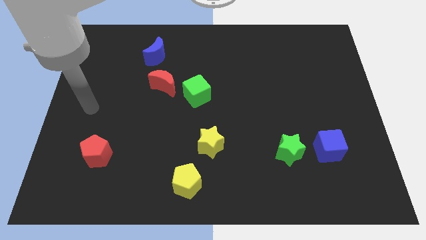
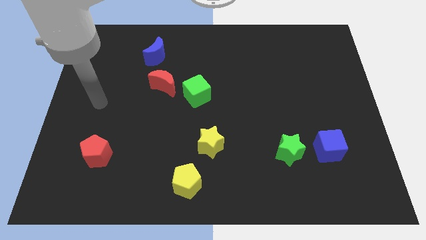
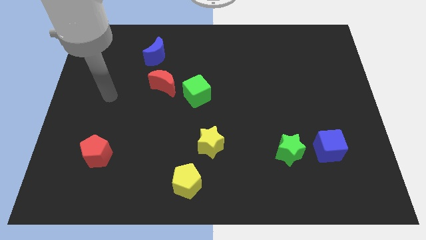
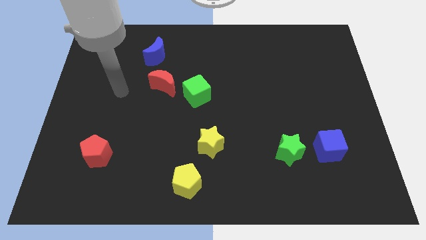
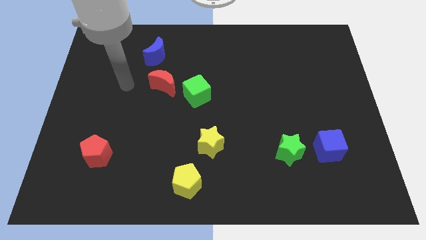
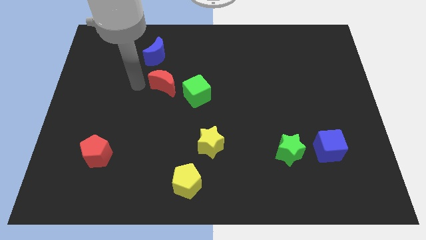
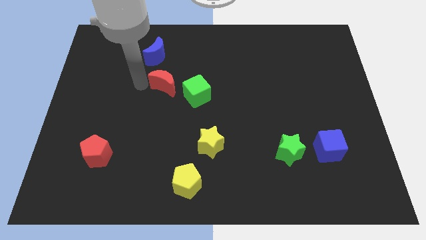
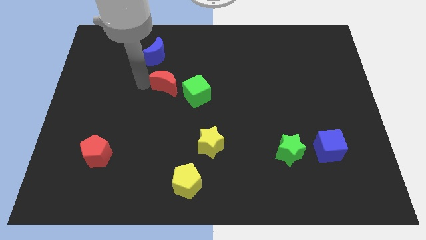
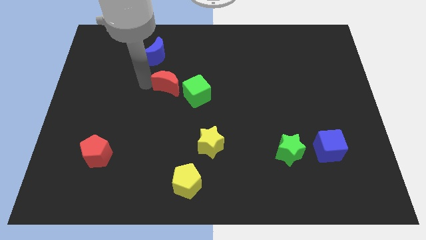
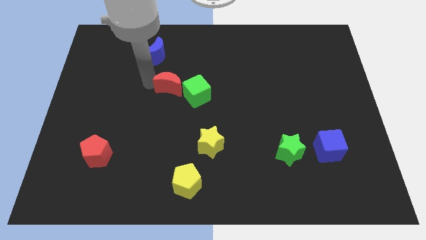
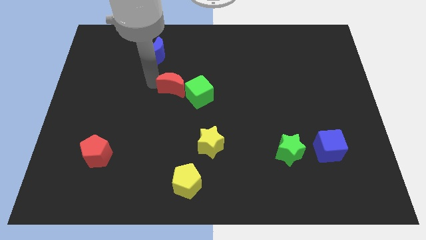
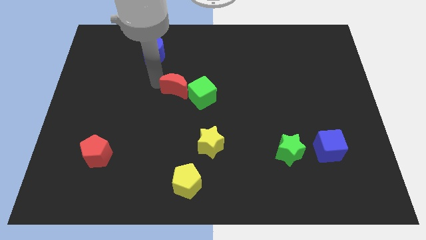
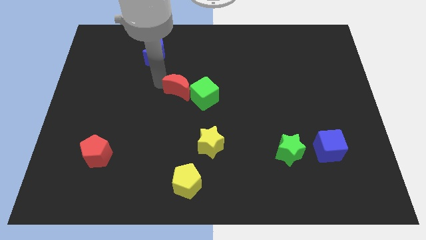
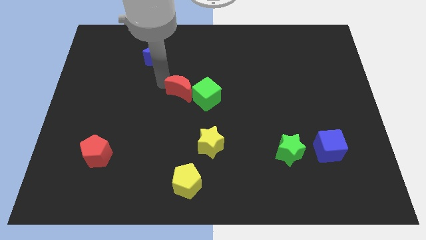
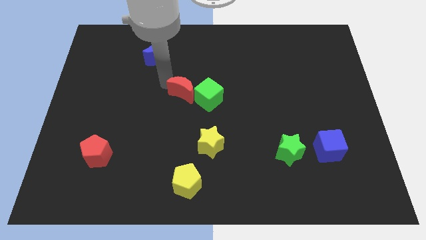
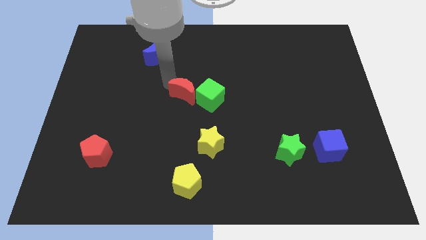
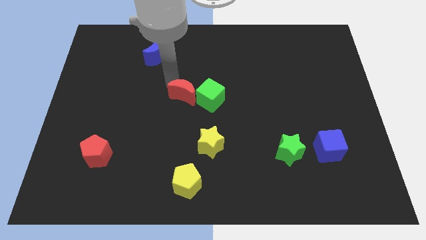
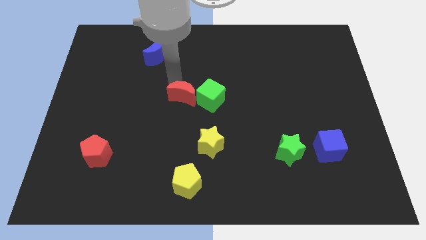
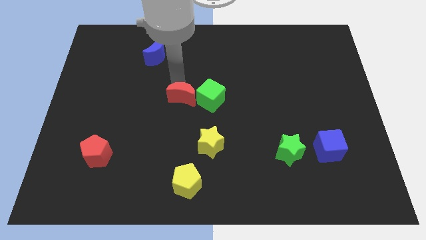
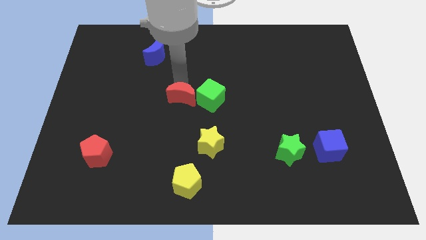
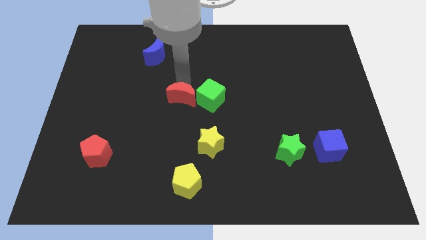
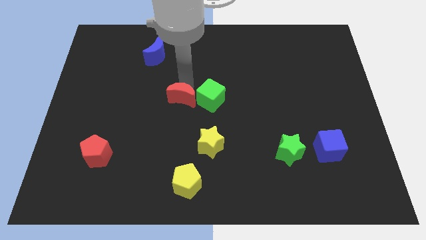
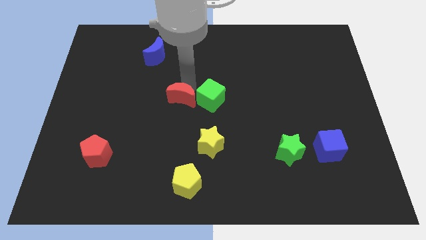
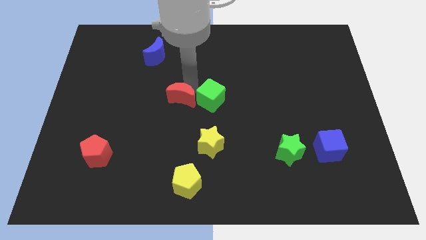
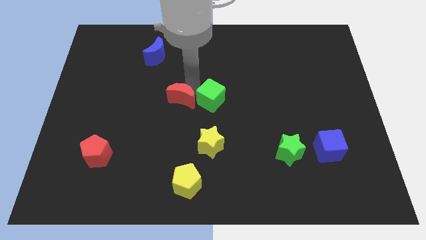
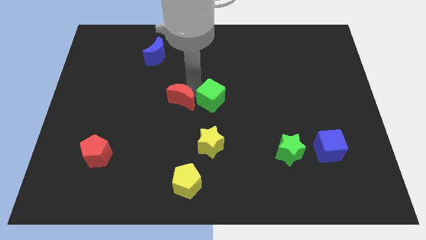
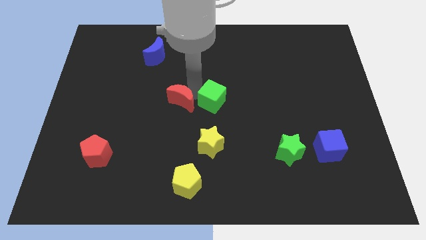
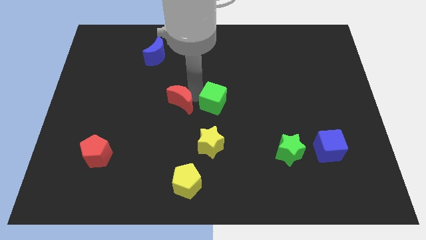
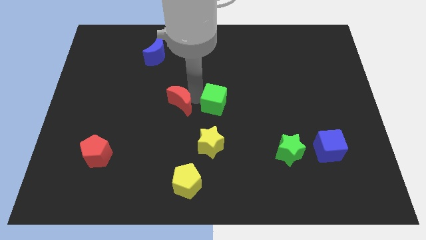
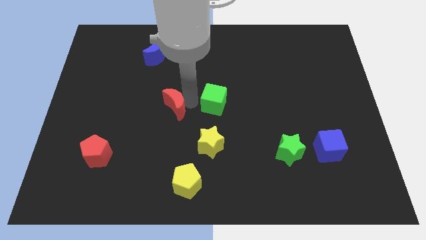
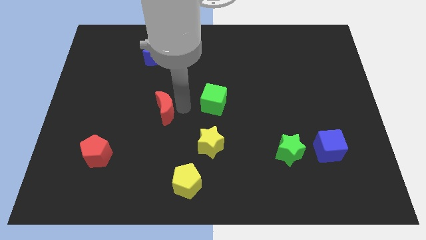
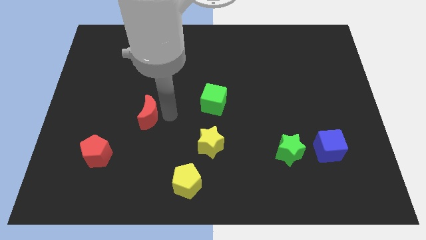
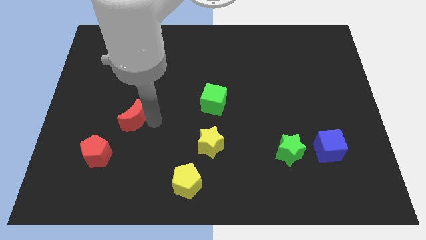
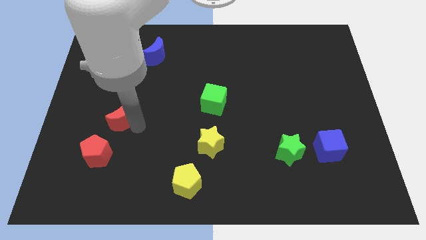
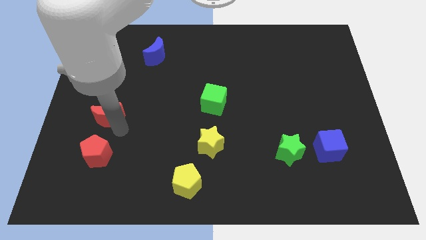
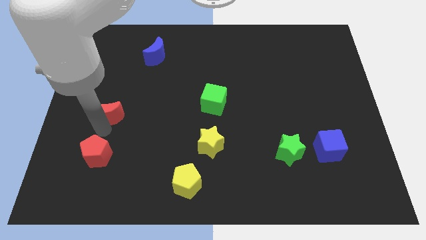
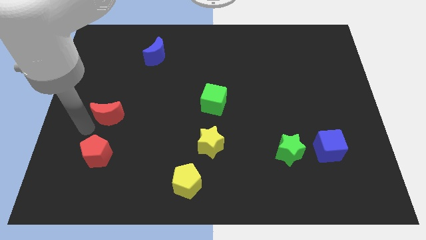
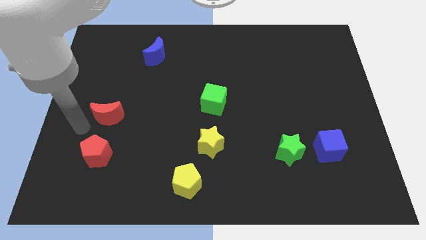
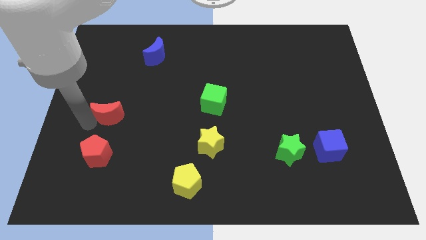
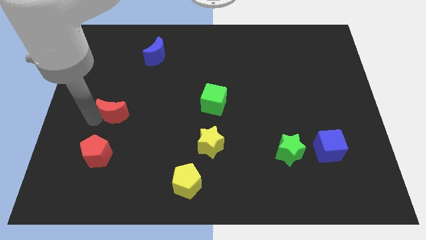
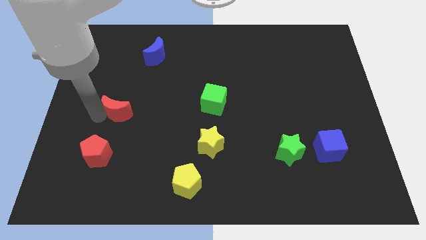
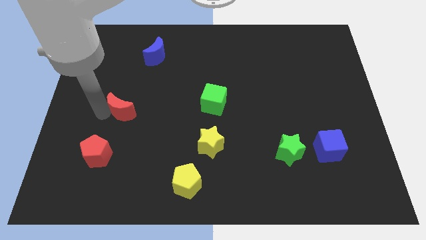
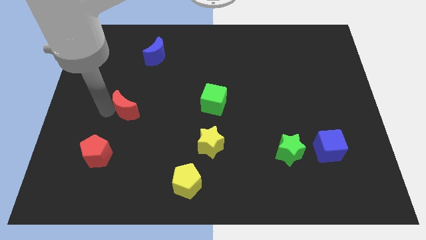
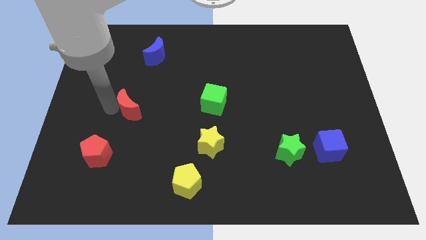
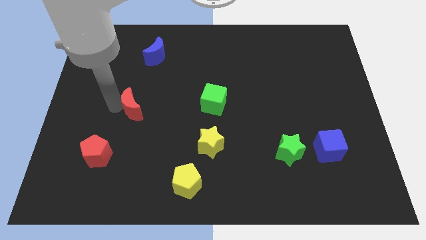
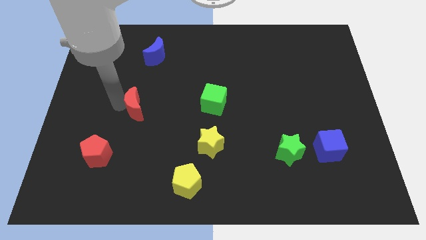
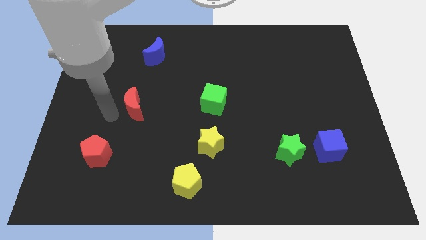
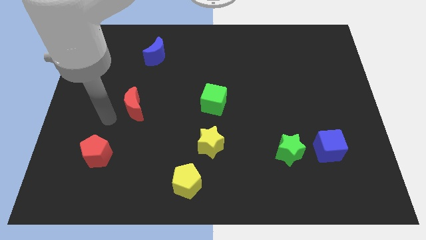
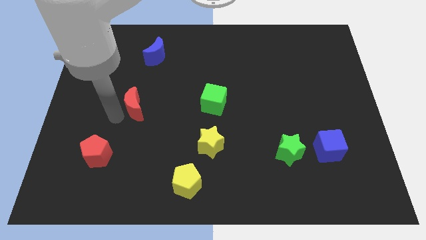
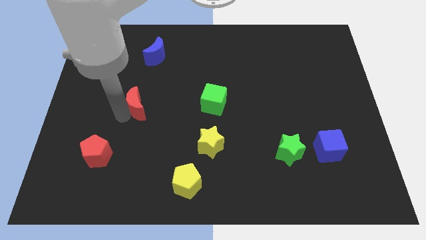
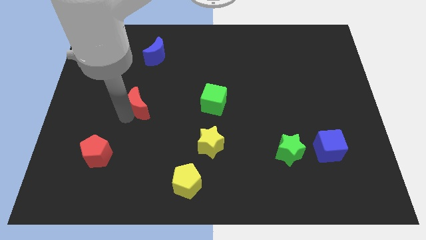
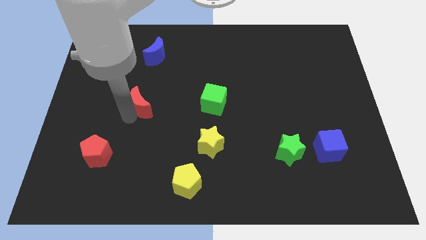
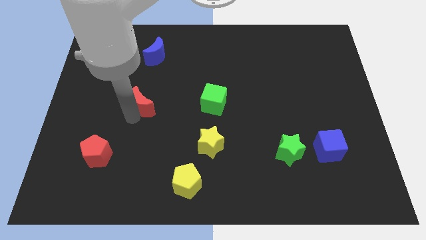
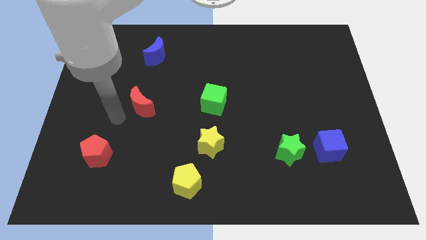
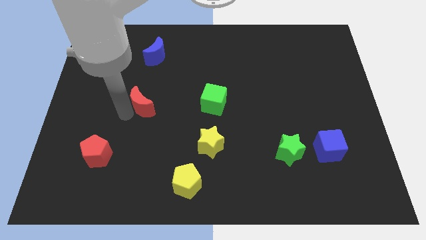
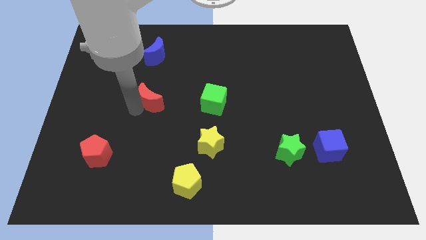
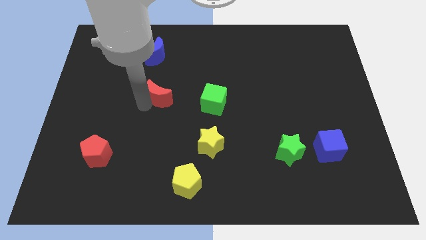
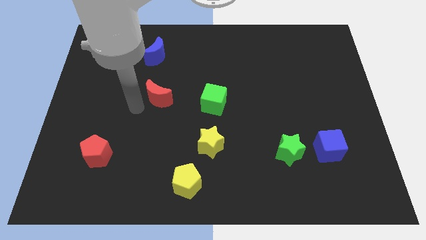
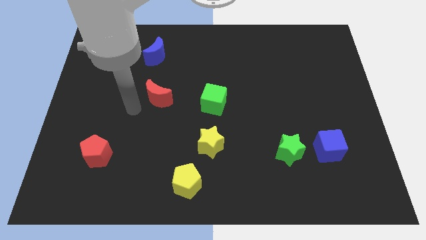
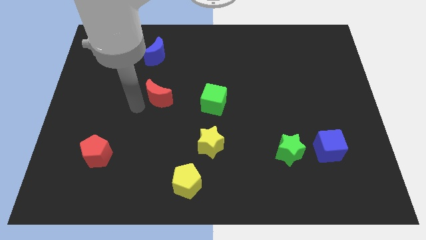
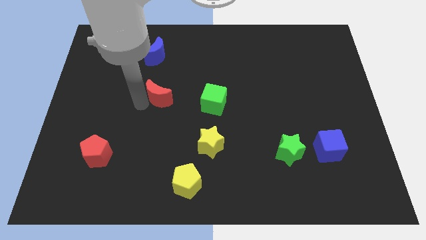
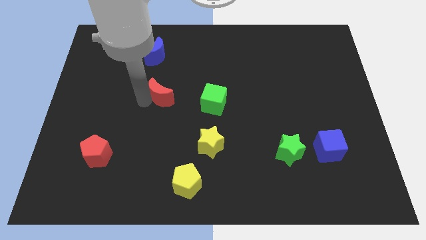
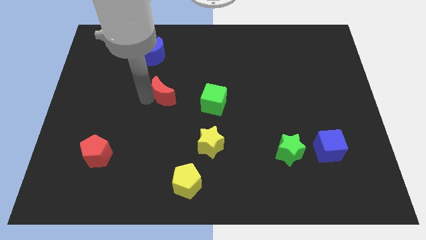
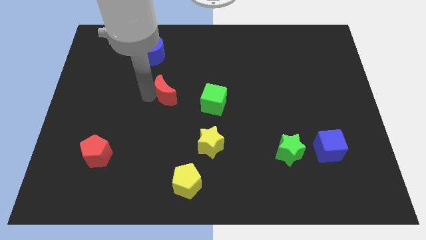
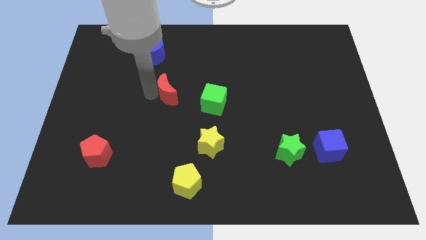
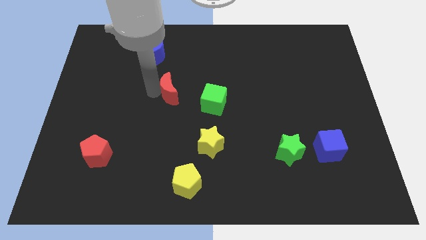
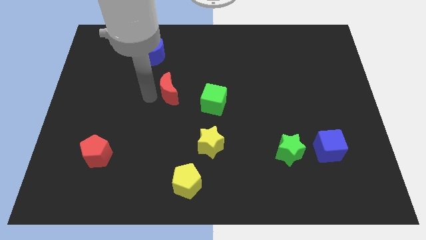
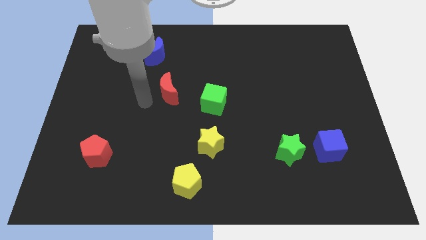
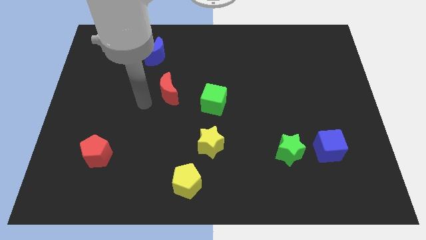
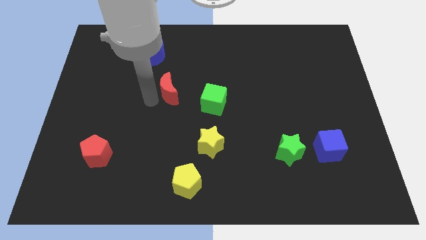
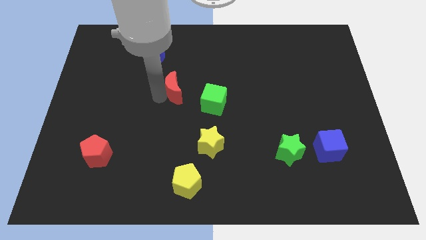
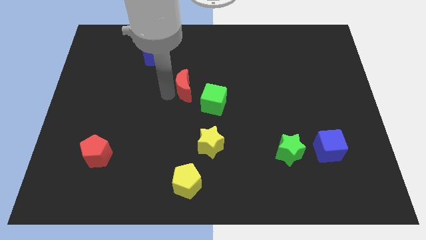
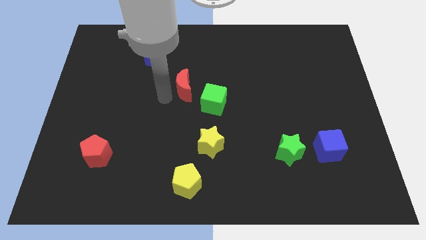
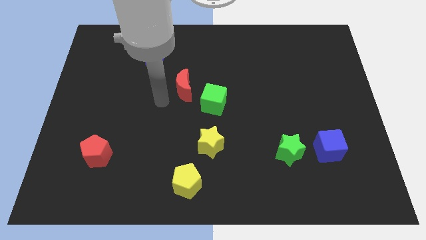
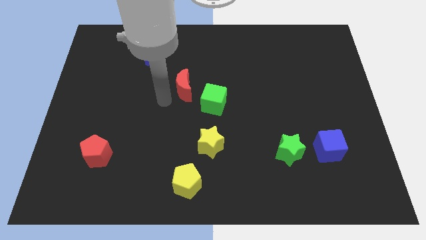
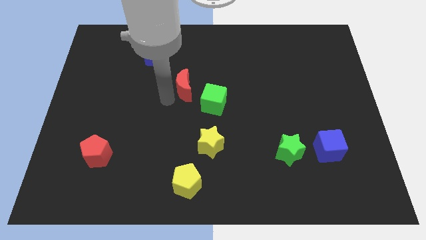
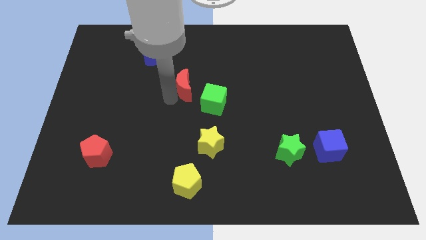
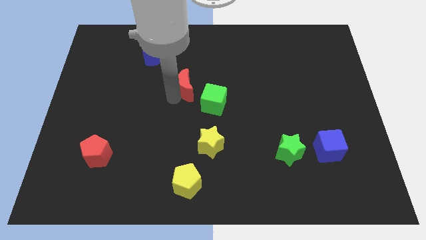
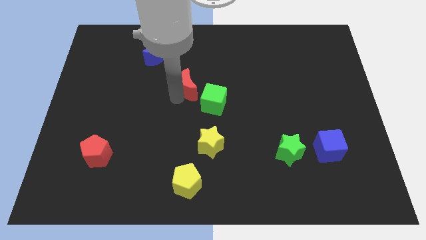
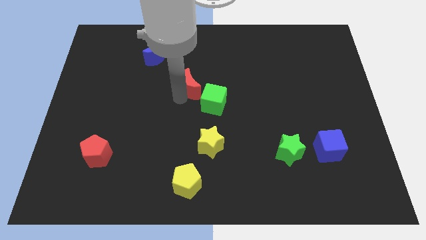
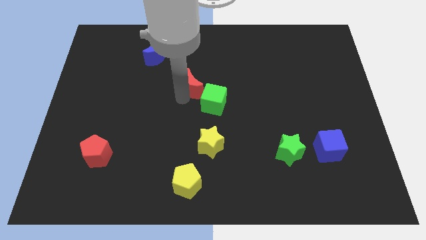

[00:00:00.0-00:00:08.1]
push the red moon right slightly
